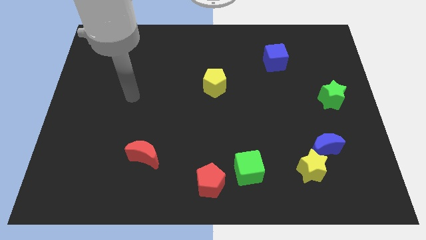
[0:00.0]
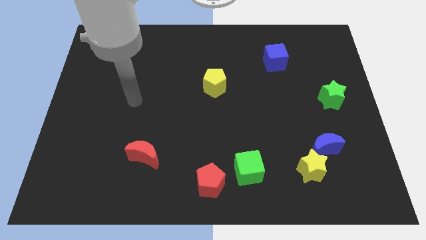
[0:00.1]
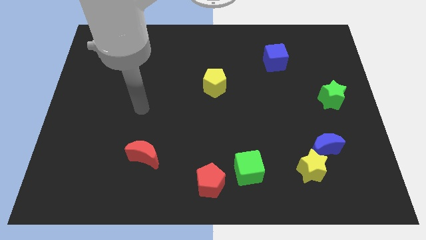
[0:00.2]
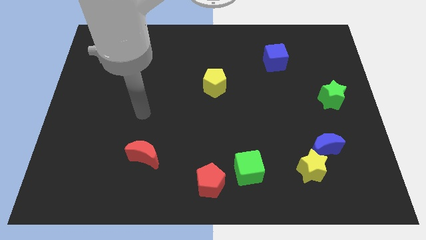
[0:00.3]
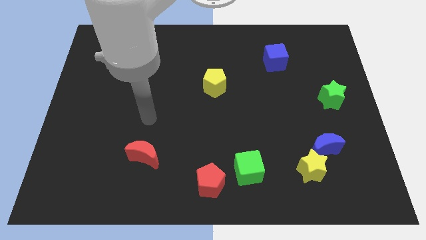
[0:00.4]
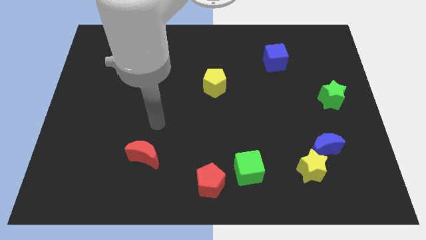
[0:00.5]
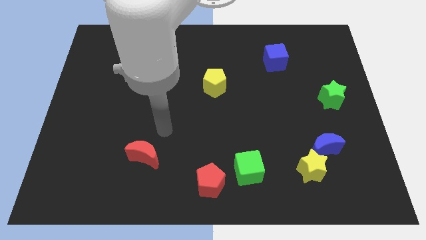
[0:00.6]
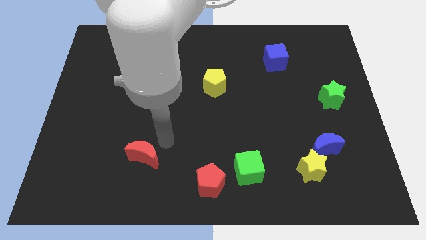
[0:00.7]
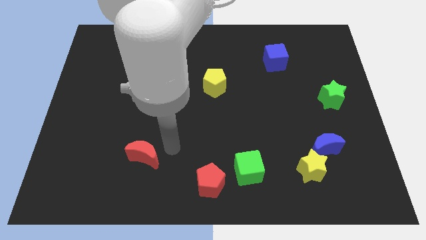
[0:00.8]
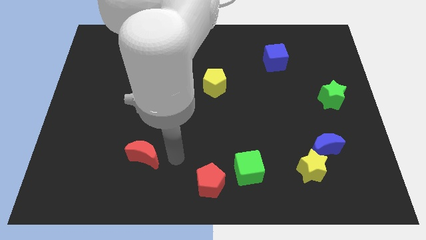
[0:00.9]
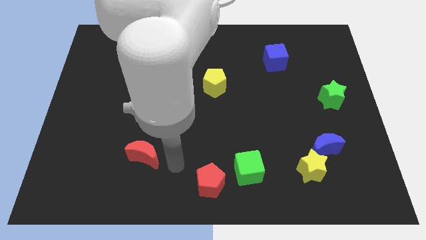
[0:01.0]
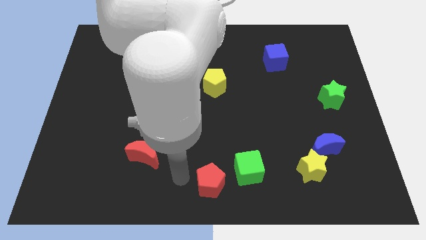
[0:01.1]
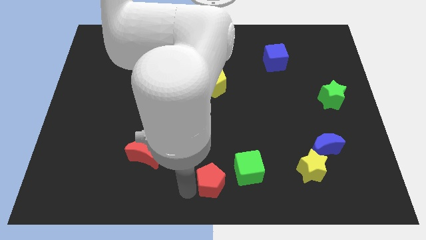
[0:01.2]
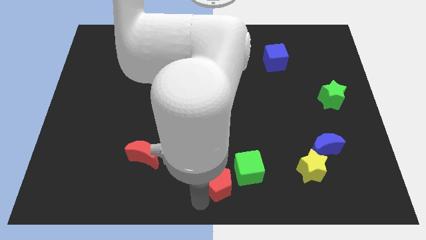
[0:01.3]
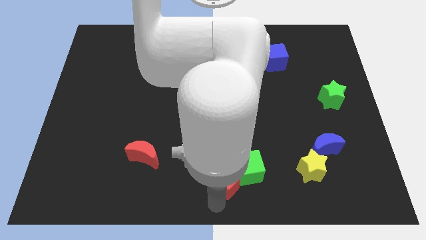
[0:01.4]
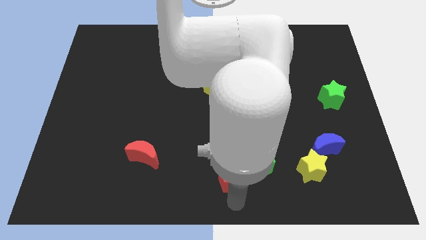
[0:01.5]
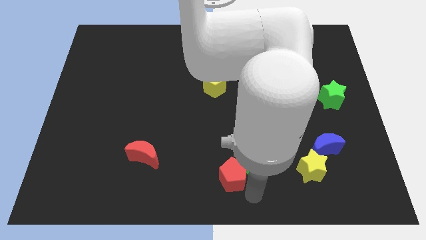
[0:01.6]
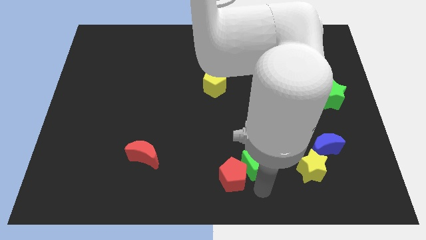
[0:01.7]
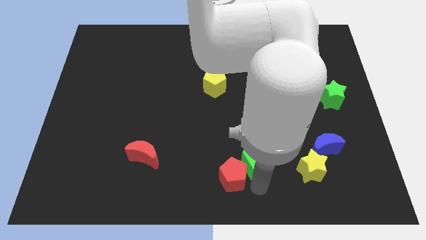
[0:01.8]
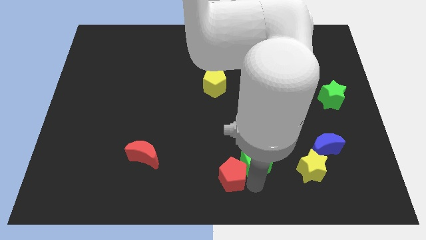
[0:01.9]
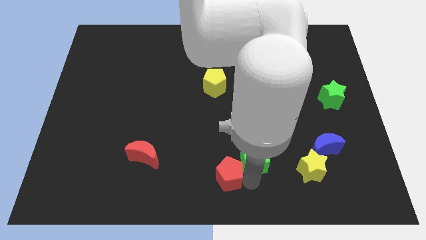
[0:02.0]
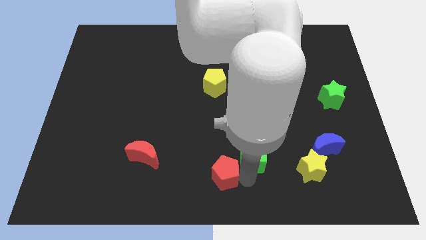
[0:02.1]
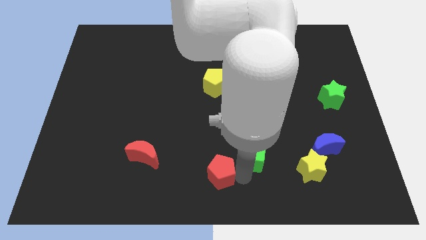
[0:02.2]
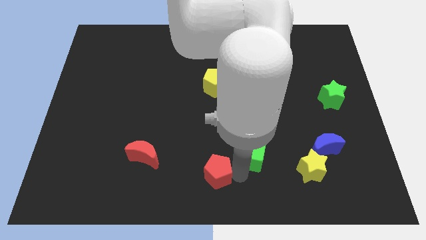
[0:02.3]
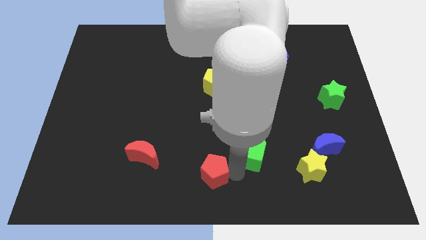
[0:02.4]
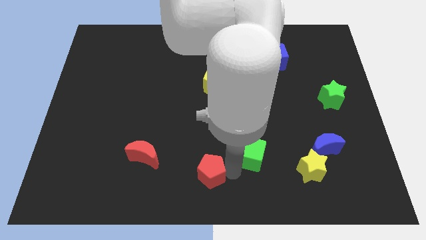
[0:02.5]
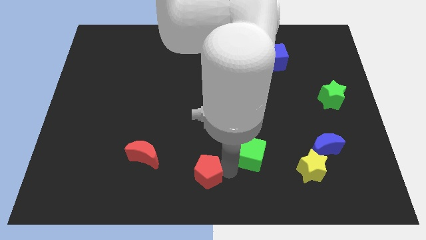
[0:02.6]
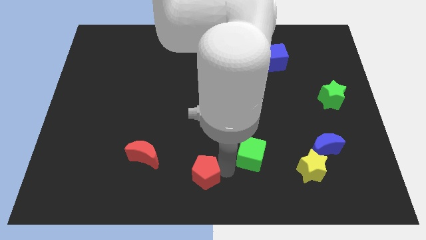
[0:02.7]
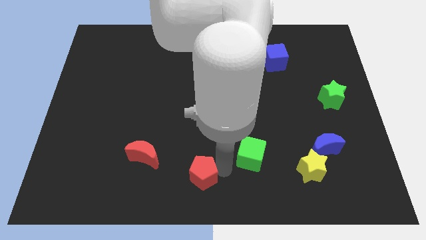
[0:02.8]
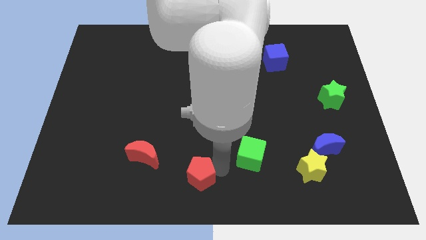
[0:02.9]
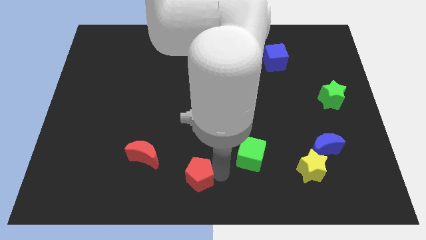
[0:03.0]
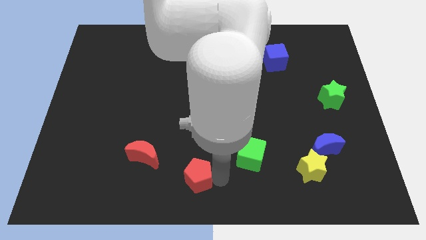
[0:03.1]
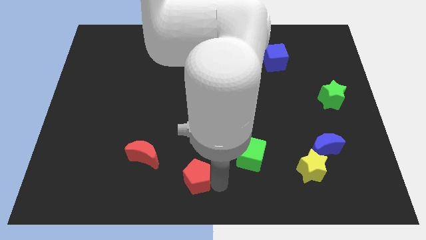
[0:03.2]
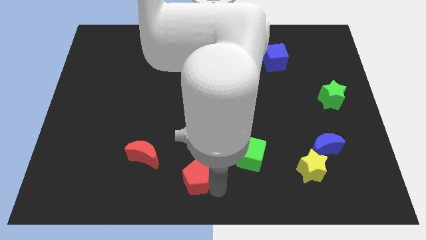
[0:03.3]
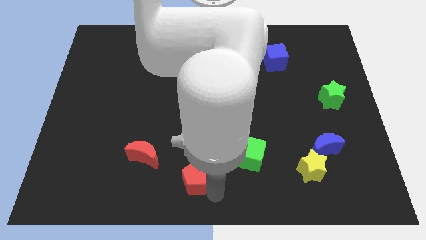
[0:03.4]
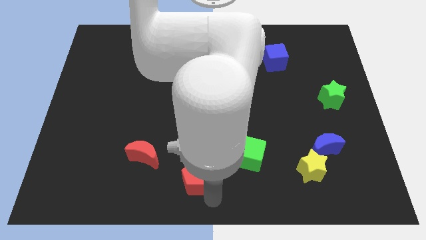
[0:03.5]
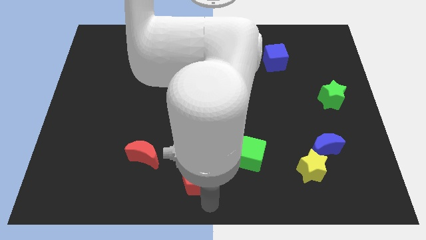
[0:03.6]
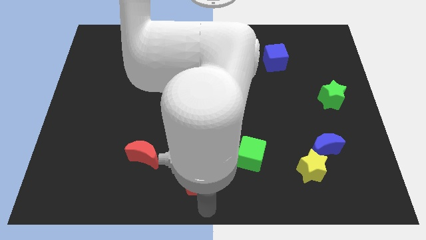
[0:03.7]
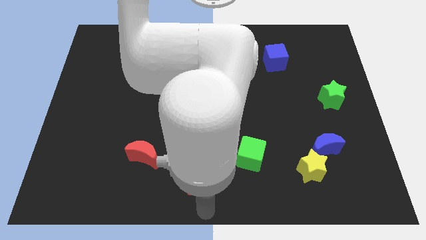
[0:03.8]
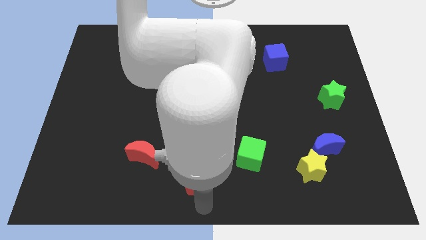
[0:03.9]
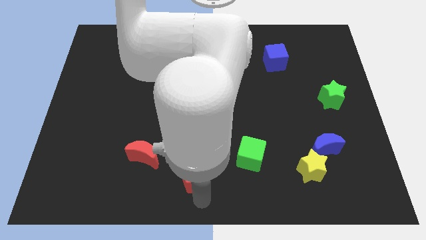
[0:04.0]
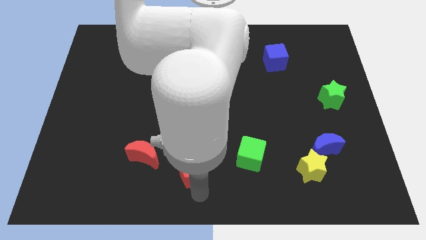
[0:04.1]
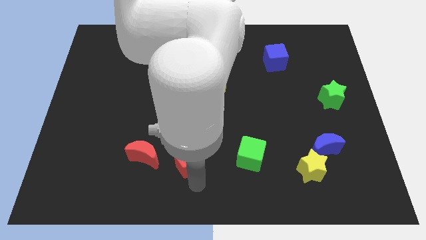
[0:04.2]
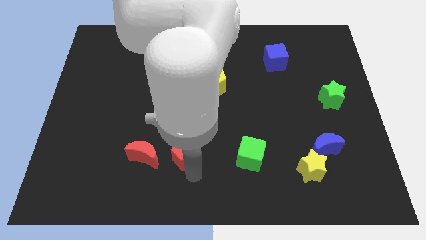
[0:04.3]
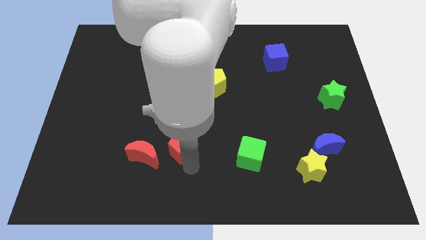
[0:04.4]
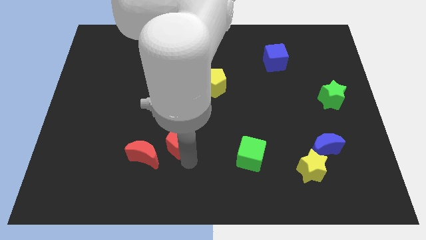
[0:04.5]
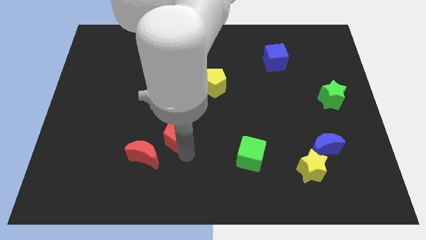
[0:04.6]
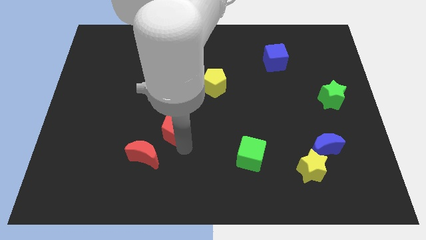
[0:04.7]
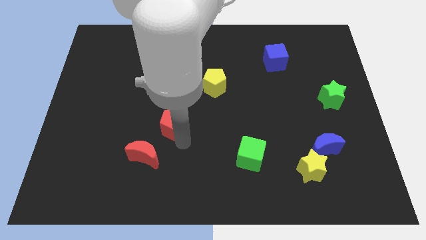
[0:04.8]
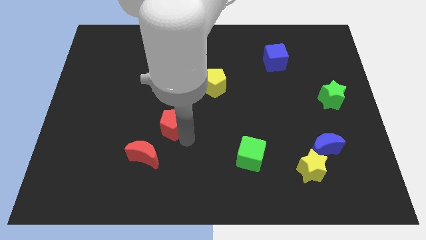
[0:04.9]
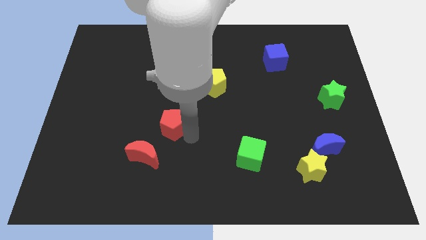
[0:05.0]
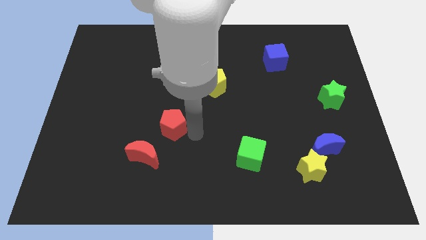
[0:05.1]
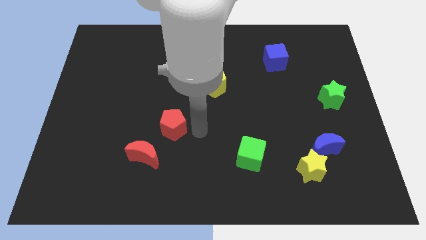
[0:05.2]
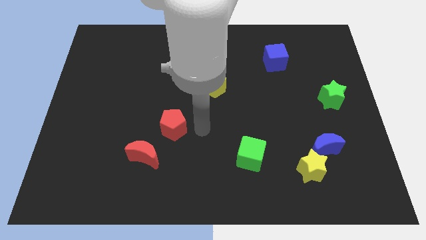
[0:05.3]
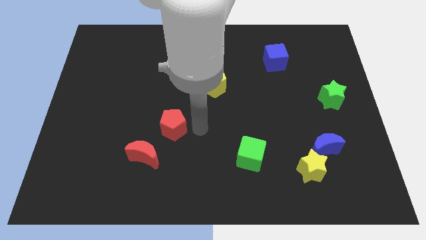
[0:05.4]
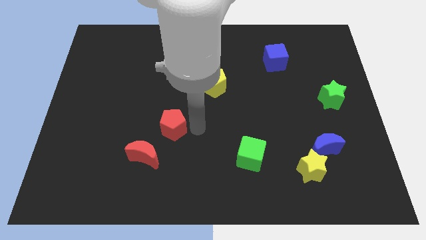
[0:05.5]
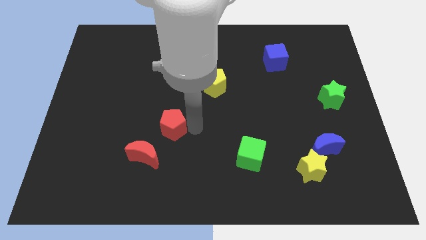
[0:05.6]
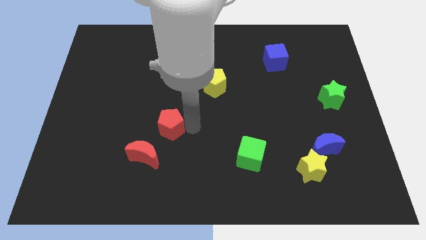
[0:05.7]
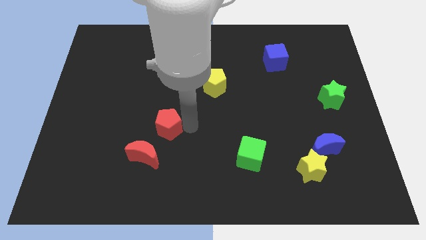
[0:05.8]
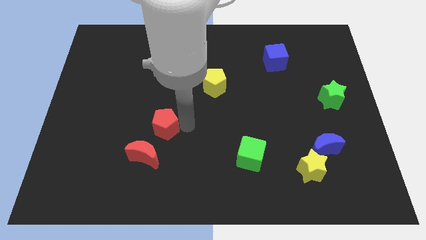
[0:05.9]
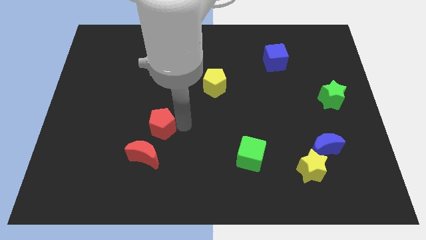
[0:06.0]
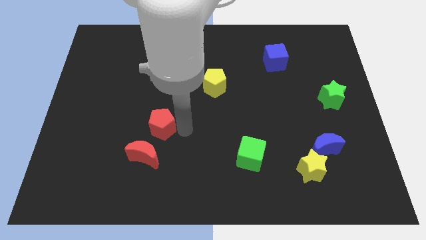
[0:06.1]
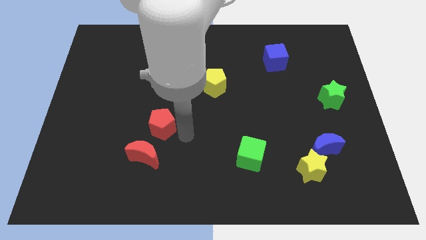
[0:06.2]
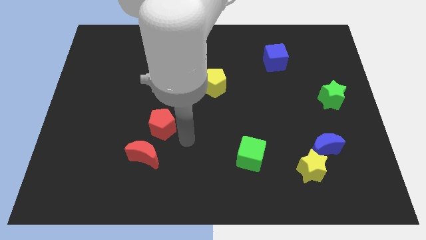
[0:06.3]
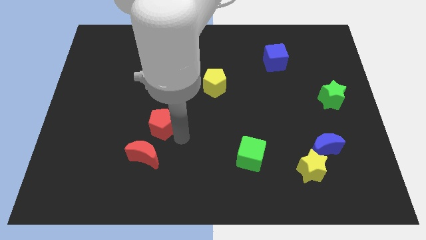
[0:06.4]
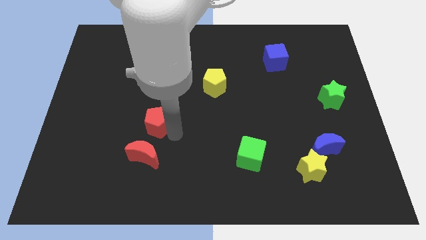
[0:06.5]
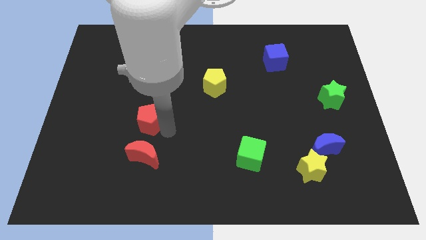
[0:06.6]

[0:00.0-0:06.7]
move the red pentagon up and left diagonally

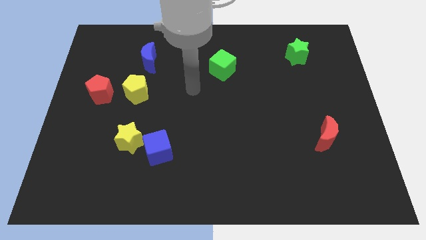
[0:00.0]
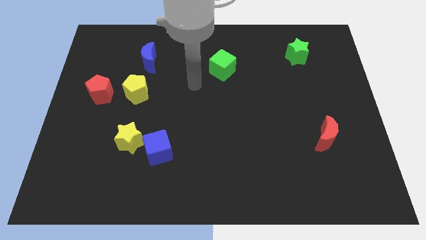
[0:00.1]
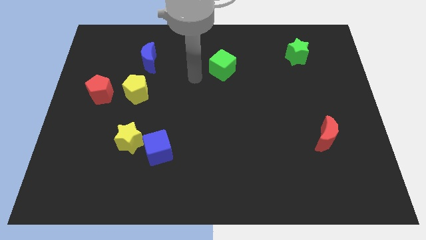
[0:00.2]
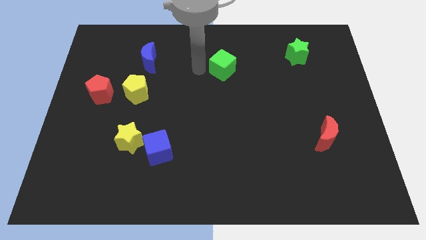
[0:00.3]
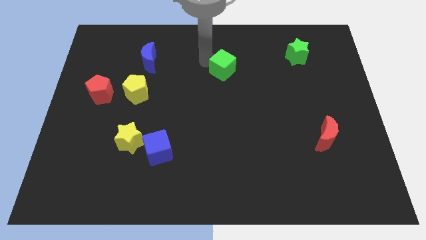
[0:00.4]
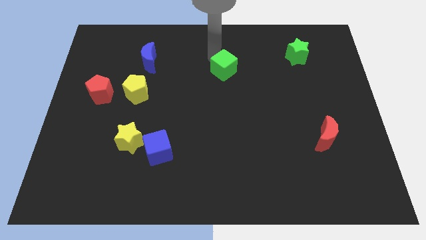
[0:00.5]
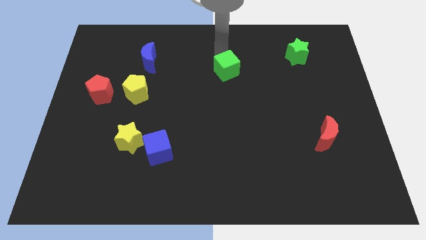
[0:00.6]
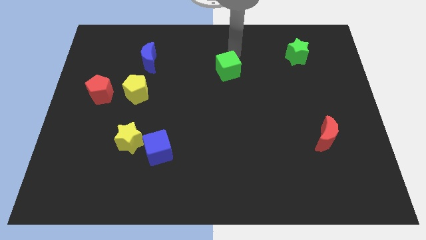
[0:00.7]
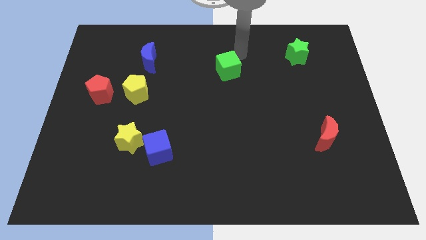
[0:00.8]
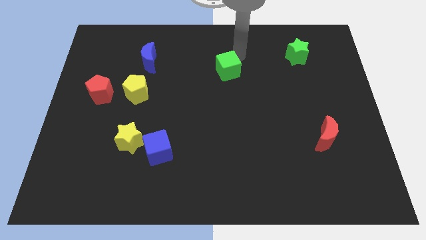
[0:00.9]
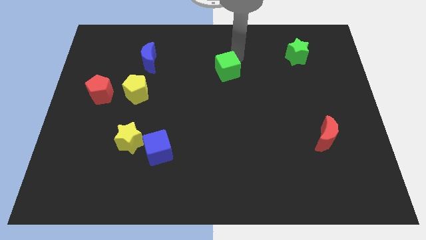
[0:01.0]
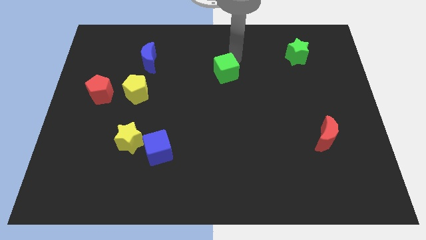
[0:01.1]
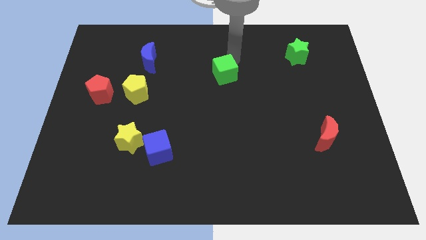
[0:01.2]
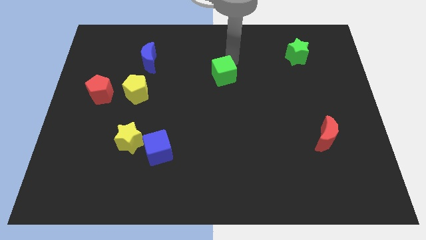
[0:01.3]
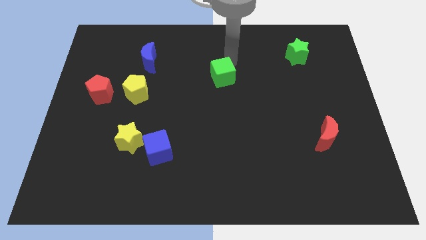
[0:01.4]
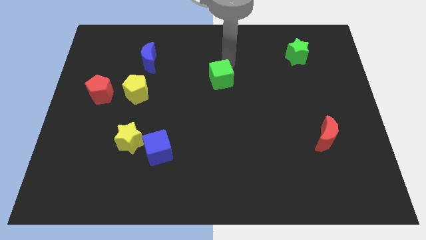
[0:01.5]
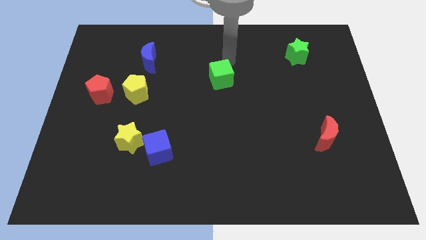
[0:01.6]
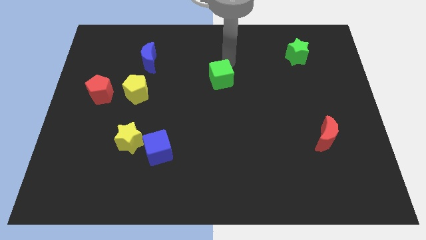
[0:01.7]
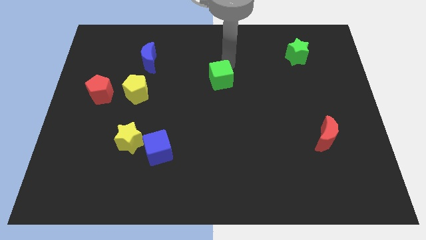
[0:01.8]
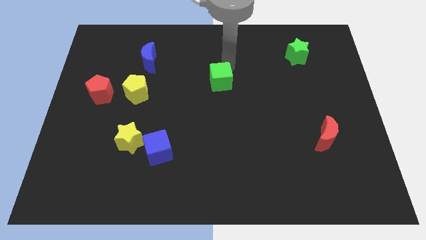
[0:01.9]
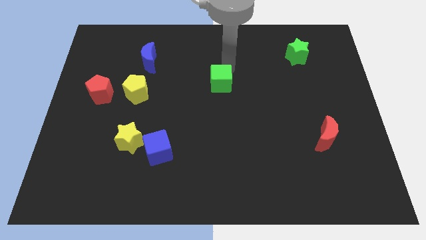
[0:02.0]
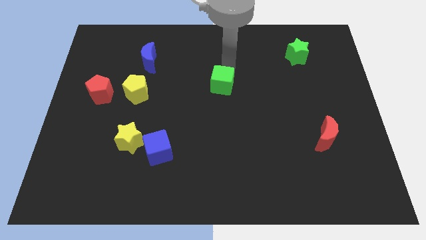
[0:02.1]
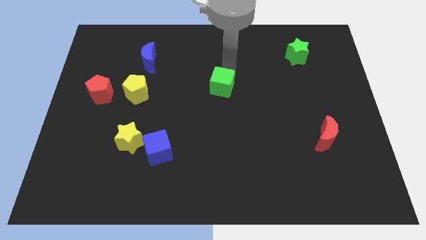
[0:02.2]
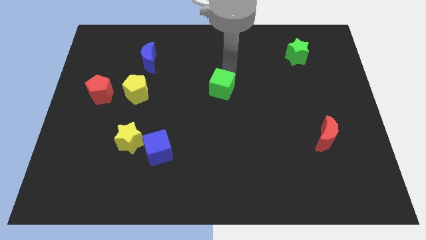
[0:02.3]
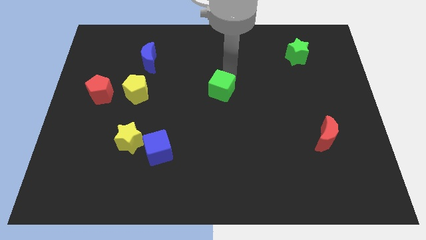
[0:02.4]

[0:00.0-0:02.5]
slightly slide the green cube down
